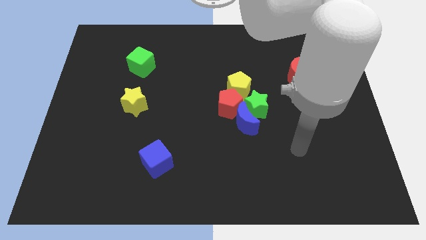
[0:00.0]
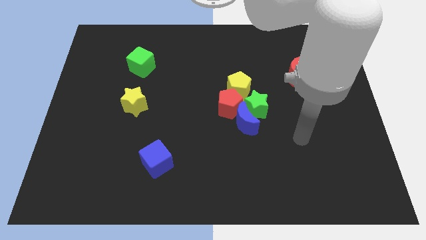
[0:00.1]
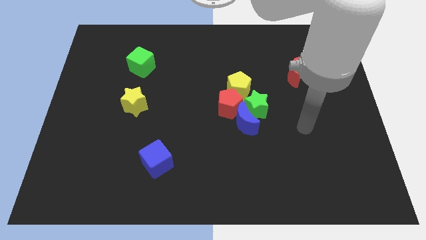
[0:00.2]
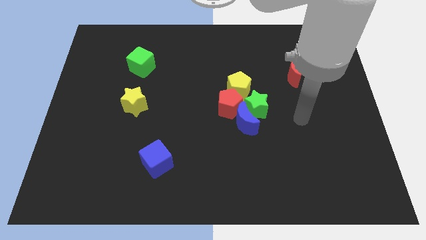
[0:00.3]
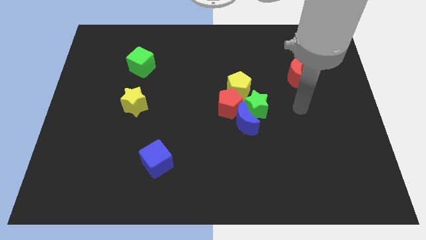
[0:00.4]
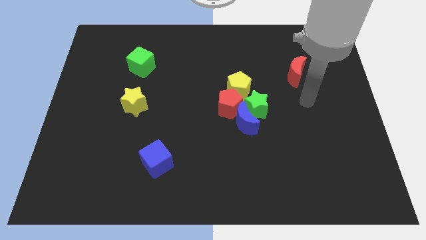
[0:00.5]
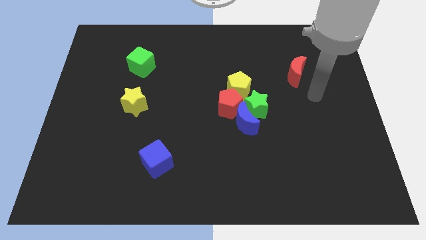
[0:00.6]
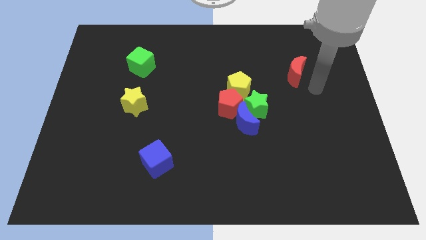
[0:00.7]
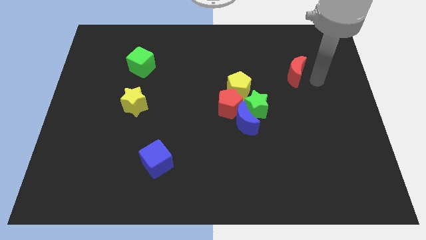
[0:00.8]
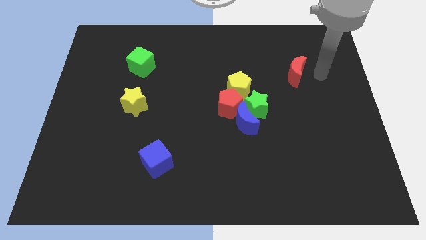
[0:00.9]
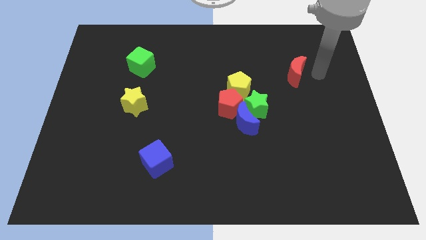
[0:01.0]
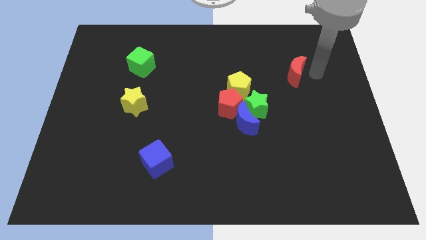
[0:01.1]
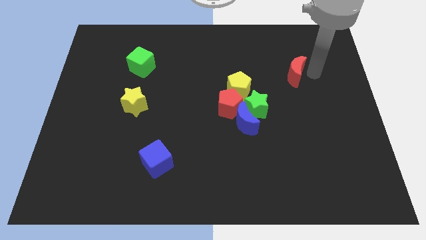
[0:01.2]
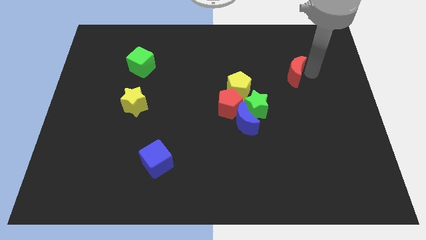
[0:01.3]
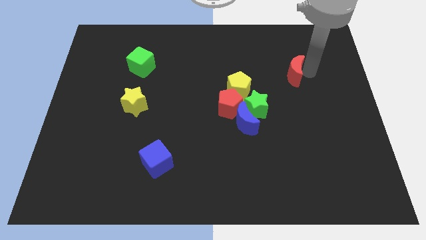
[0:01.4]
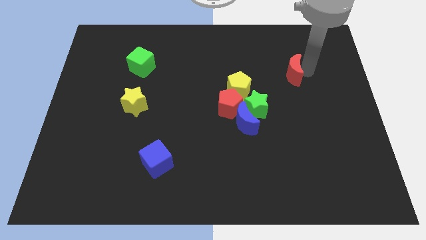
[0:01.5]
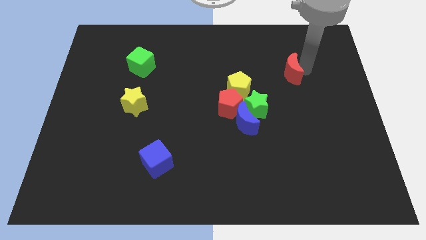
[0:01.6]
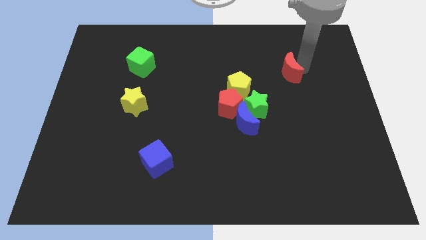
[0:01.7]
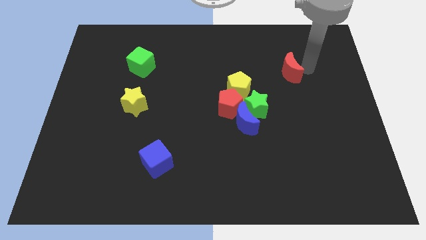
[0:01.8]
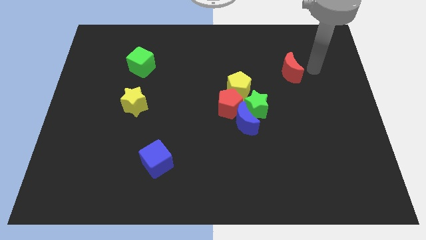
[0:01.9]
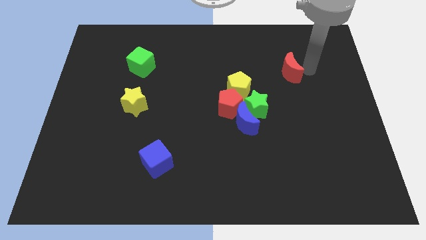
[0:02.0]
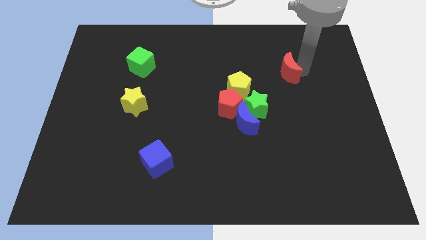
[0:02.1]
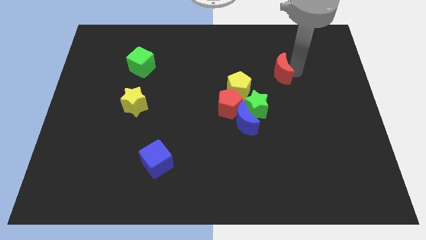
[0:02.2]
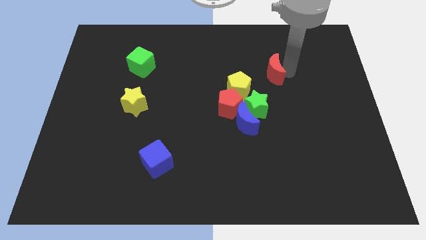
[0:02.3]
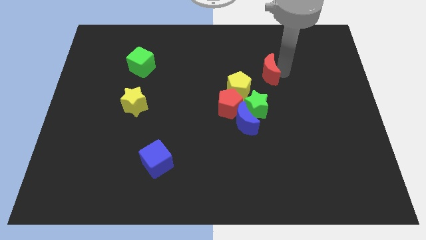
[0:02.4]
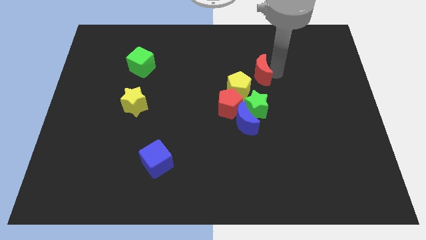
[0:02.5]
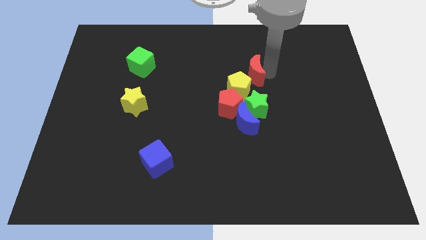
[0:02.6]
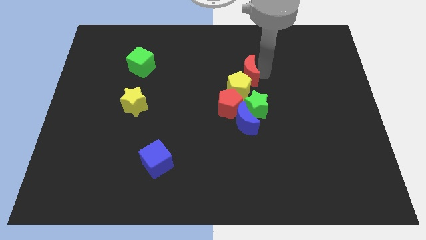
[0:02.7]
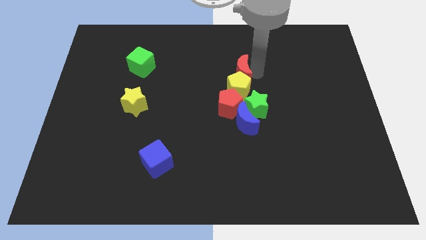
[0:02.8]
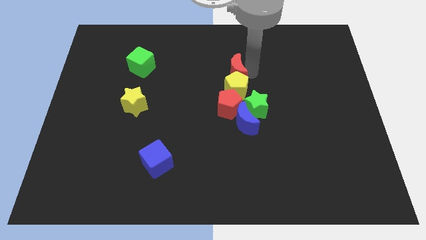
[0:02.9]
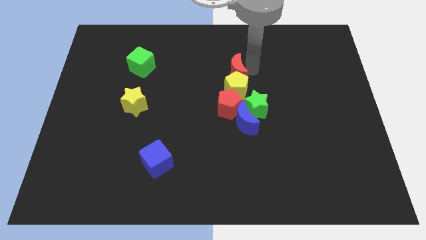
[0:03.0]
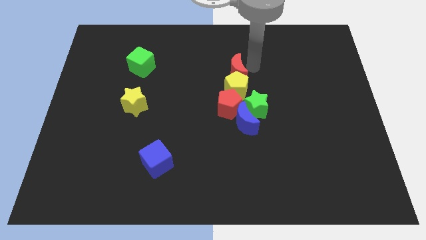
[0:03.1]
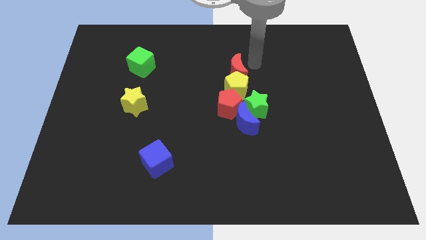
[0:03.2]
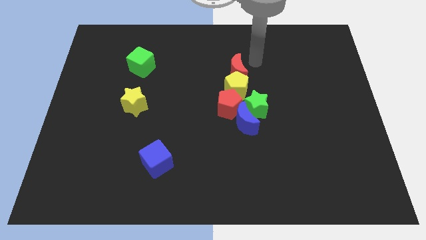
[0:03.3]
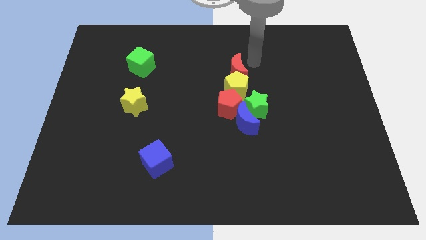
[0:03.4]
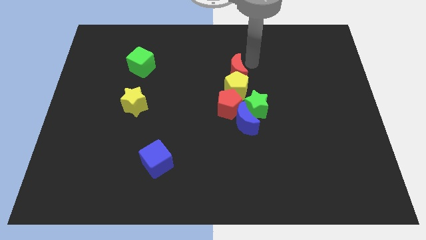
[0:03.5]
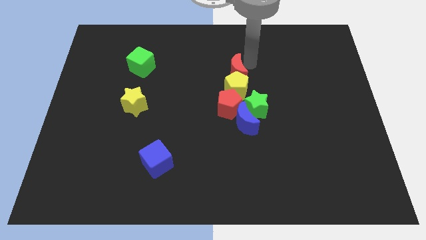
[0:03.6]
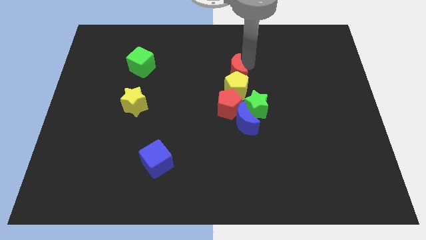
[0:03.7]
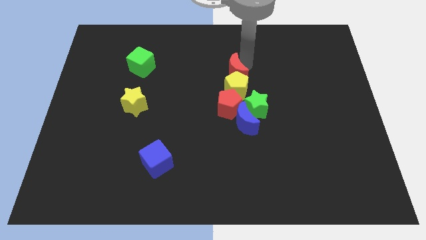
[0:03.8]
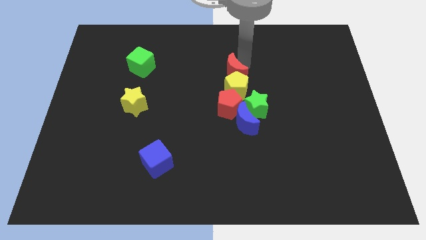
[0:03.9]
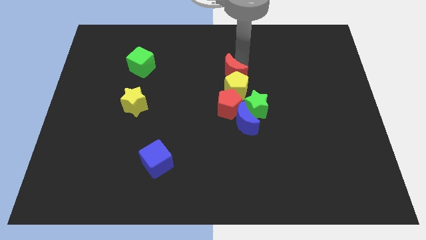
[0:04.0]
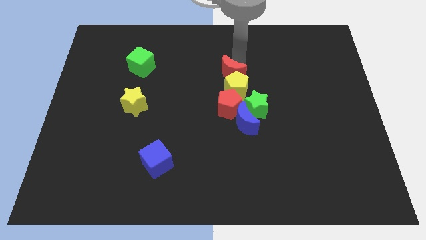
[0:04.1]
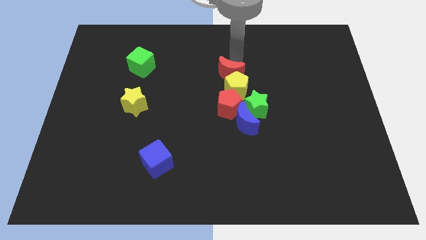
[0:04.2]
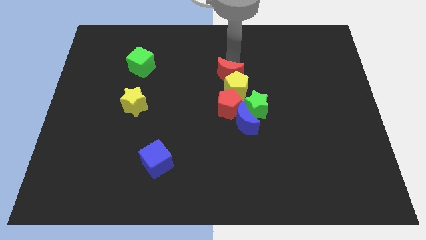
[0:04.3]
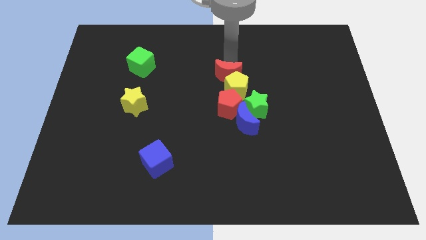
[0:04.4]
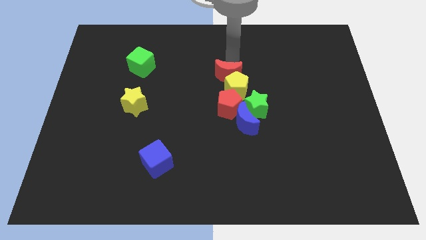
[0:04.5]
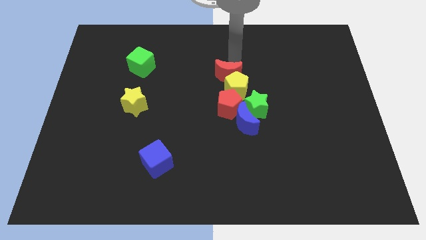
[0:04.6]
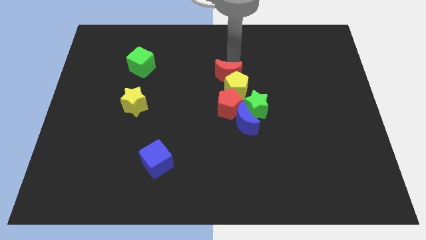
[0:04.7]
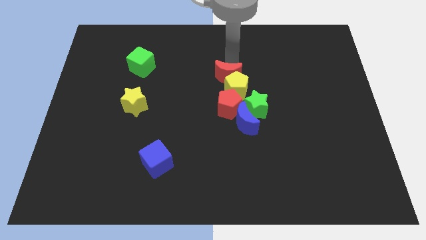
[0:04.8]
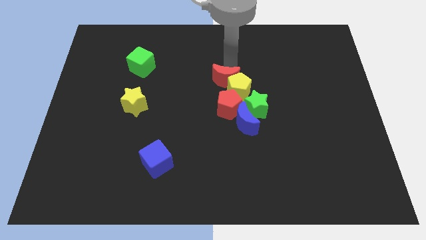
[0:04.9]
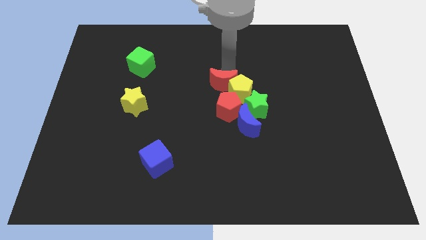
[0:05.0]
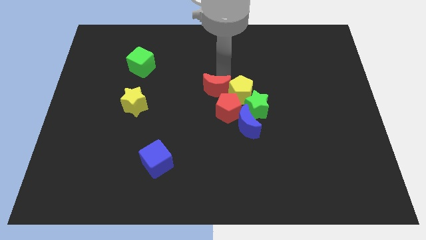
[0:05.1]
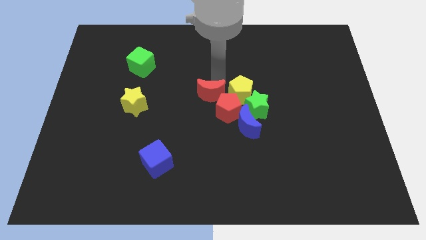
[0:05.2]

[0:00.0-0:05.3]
put the red moon next to the red pentagon

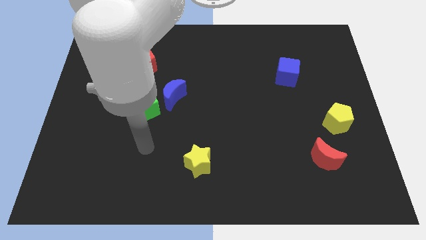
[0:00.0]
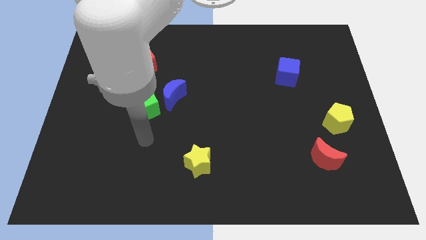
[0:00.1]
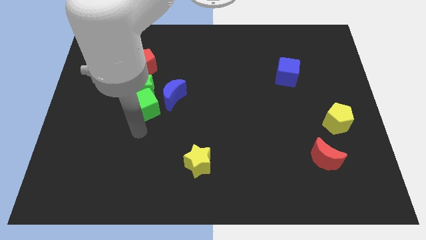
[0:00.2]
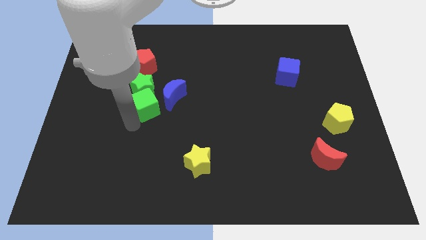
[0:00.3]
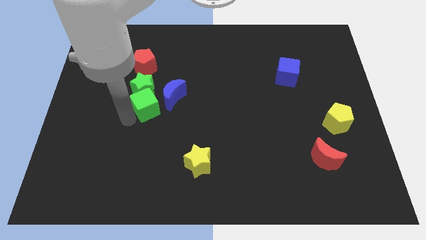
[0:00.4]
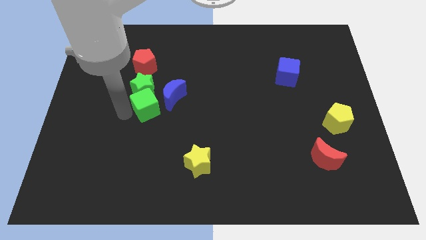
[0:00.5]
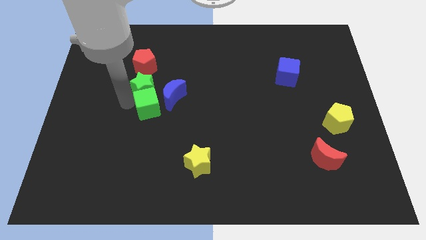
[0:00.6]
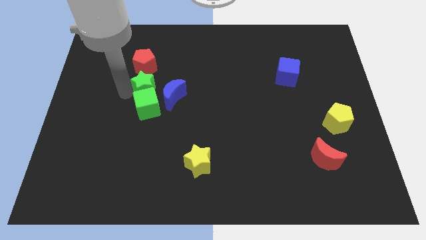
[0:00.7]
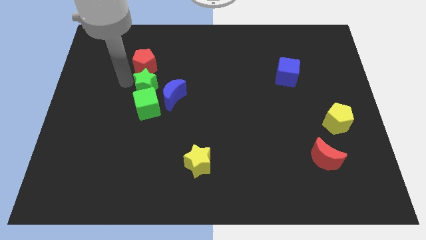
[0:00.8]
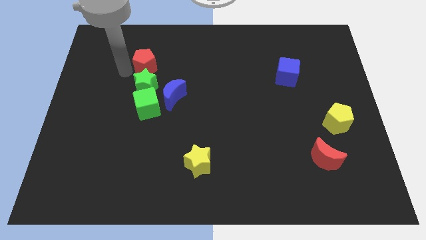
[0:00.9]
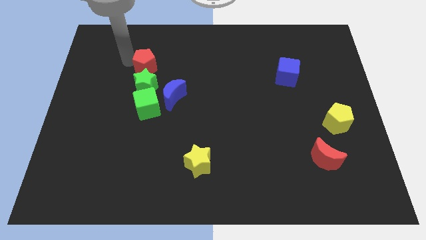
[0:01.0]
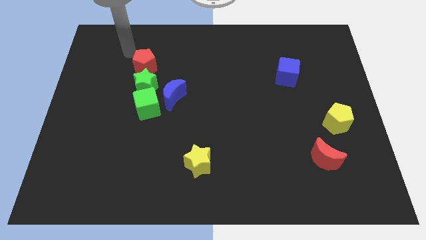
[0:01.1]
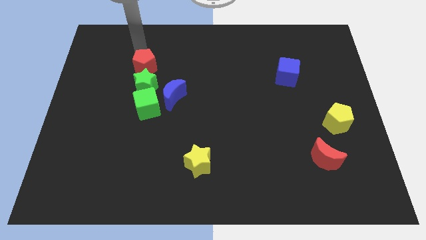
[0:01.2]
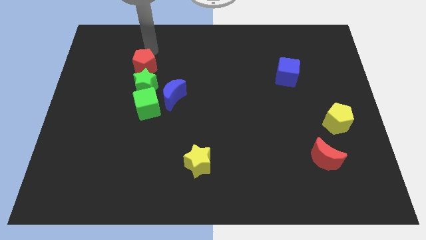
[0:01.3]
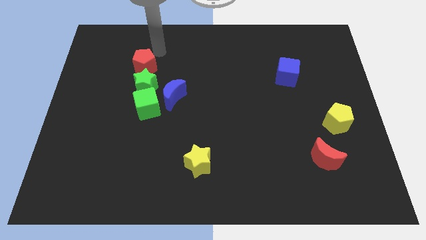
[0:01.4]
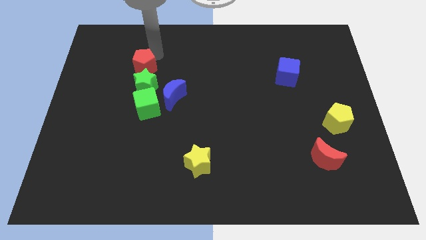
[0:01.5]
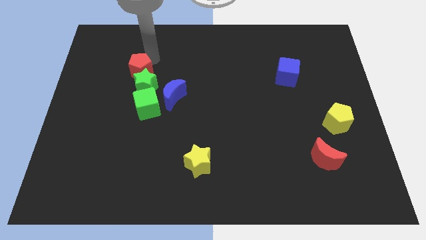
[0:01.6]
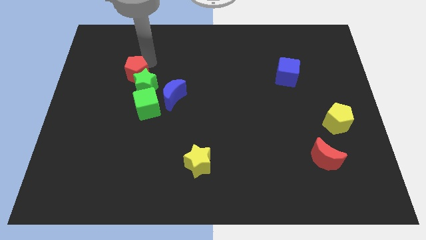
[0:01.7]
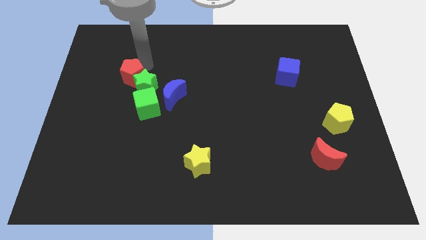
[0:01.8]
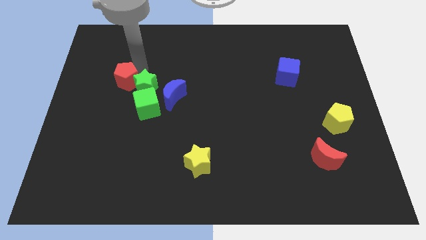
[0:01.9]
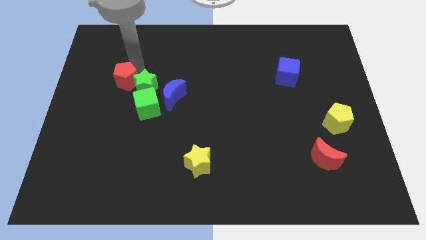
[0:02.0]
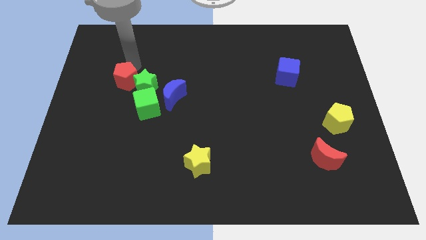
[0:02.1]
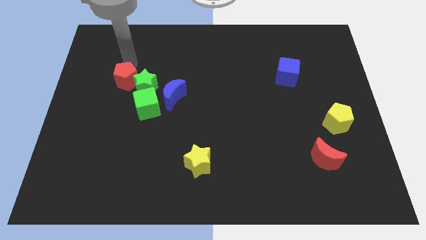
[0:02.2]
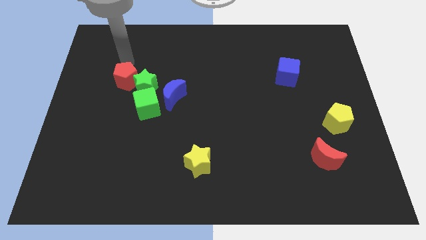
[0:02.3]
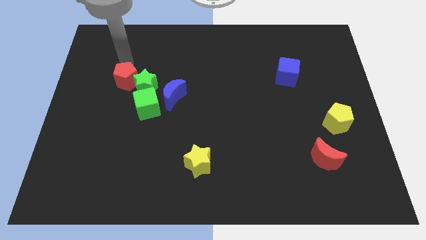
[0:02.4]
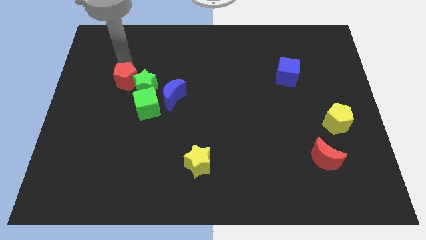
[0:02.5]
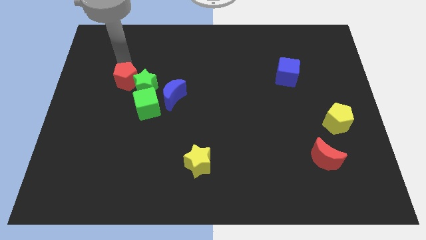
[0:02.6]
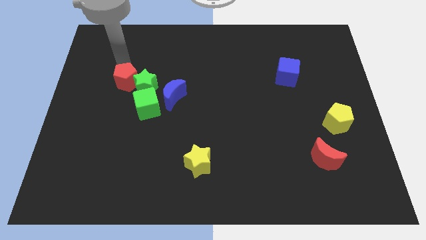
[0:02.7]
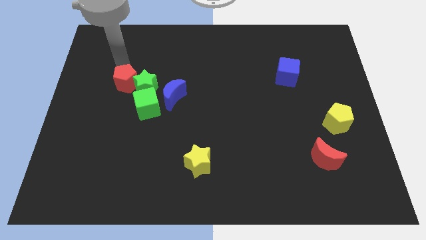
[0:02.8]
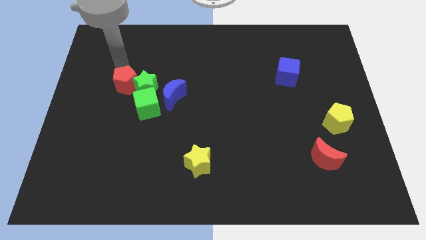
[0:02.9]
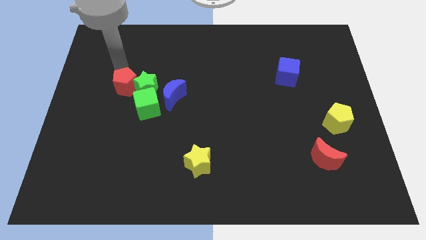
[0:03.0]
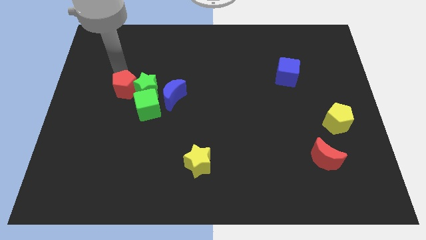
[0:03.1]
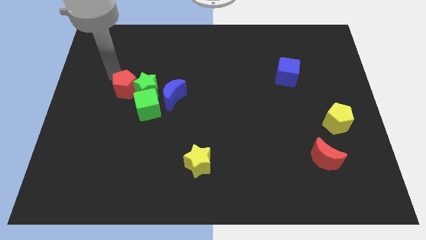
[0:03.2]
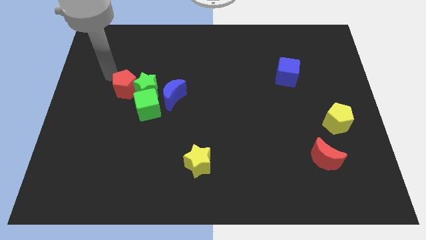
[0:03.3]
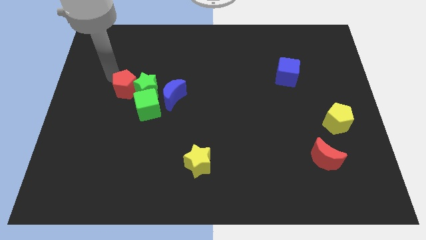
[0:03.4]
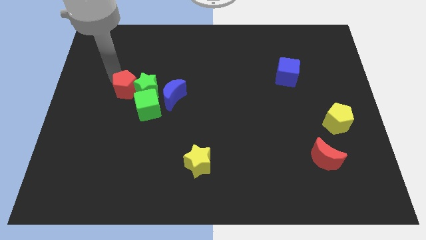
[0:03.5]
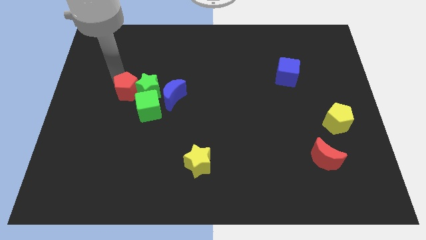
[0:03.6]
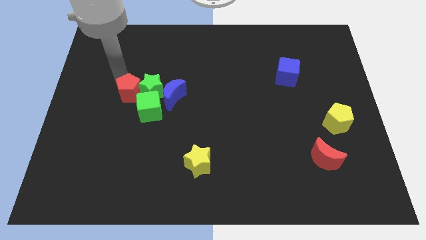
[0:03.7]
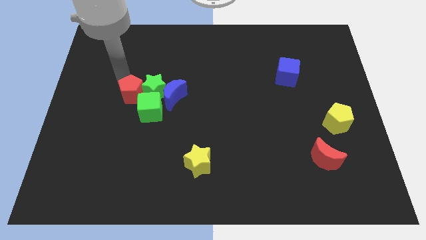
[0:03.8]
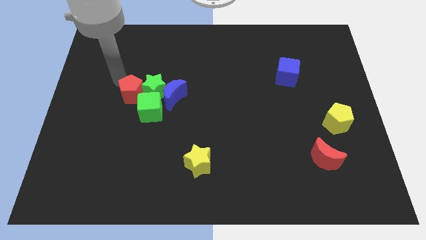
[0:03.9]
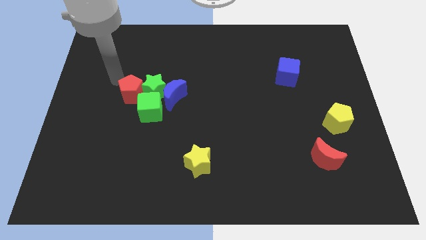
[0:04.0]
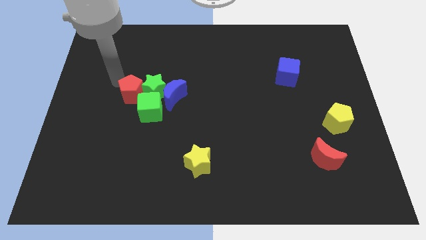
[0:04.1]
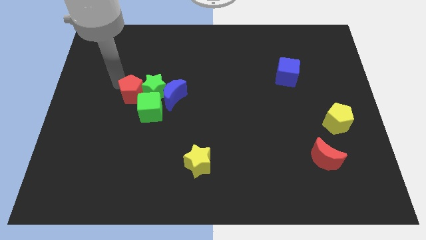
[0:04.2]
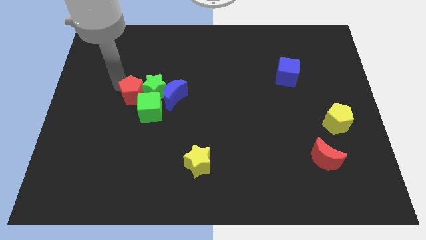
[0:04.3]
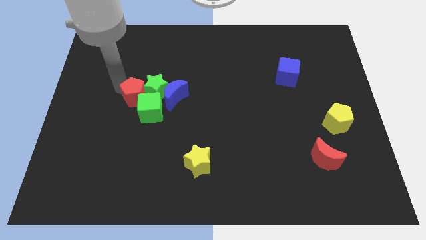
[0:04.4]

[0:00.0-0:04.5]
slide the red pentagon to the green cube
